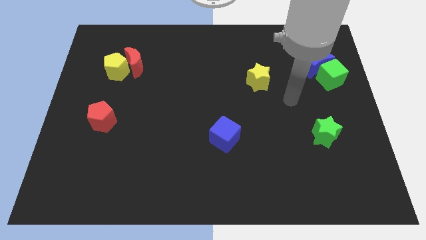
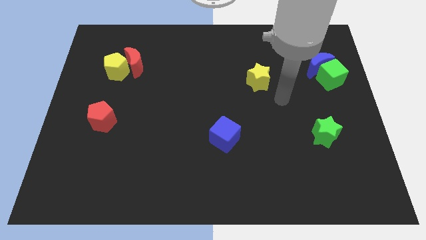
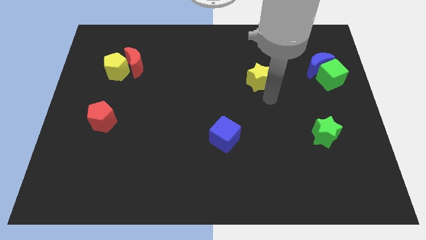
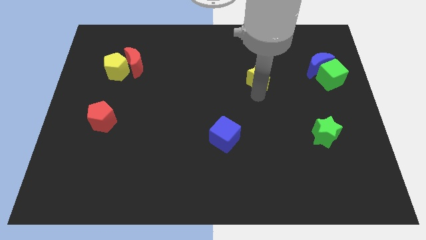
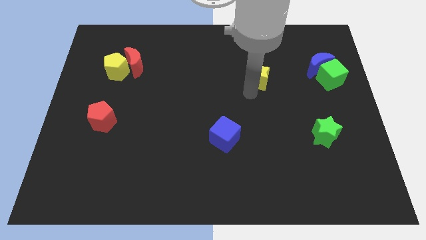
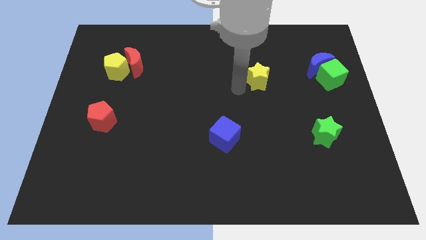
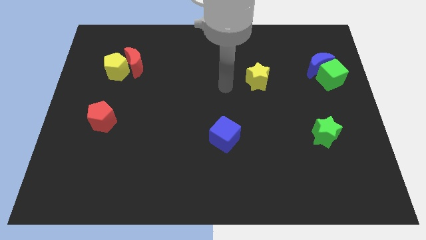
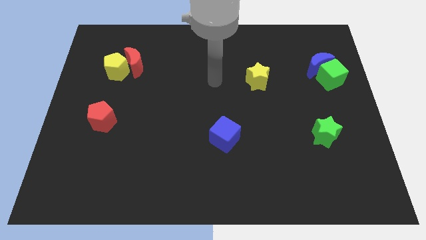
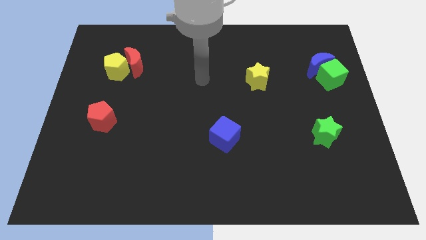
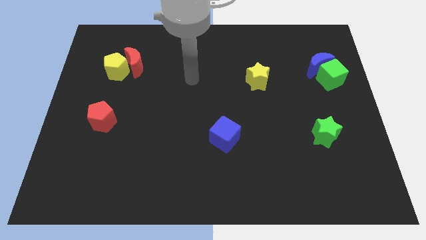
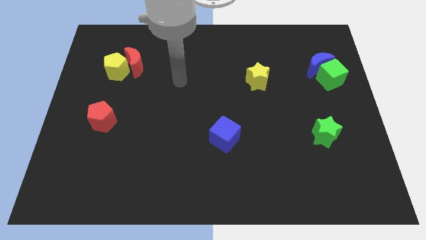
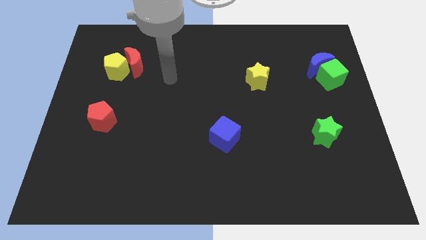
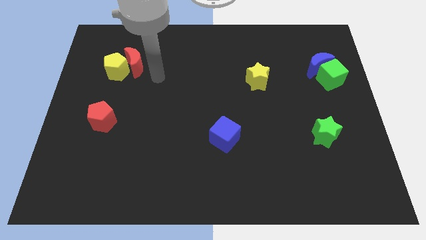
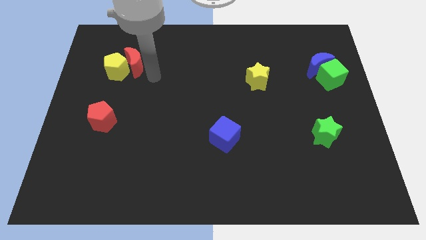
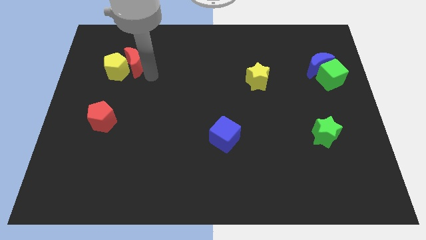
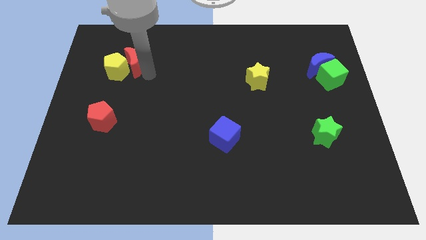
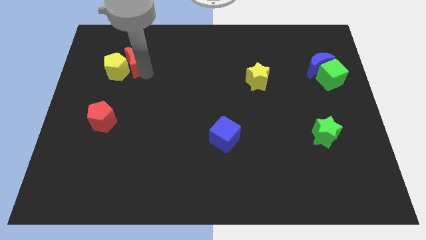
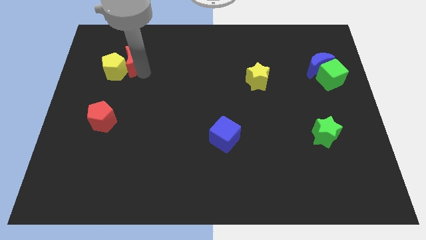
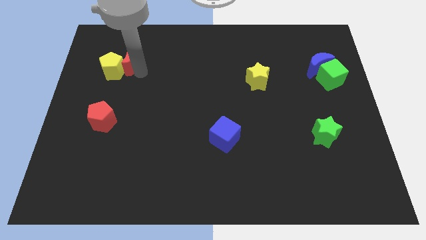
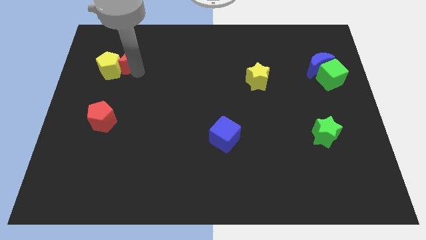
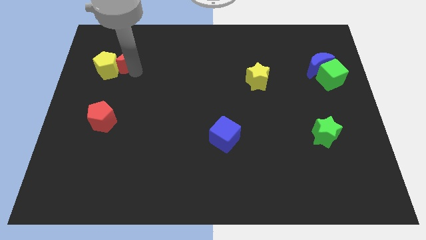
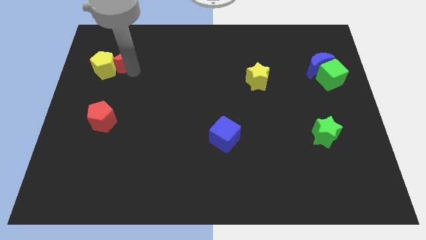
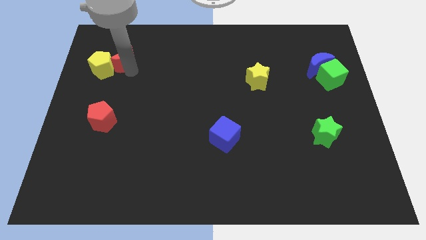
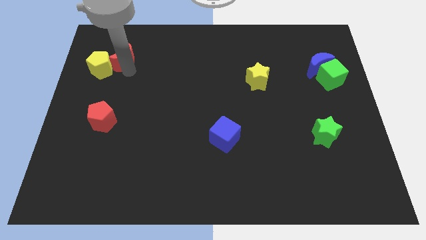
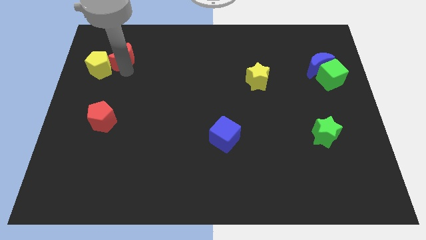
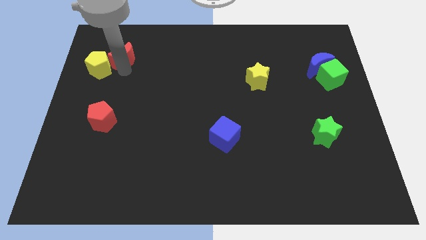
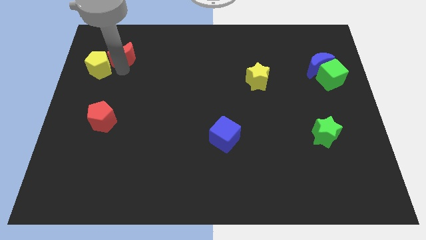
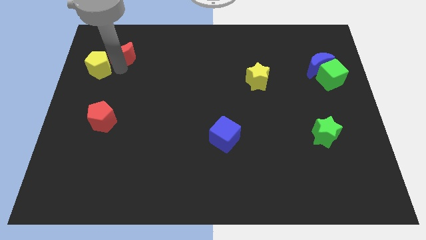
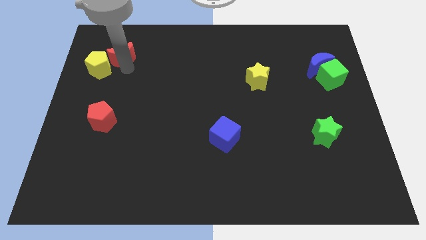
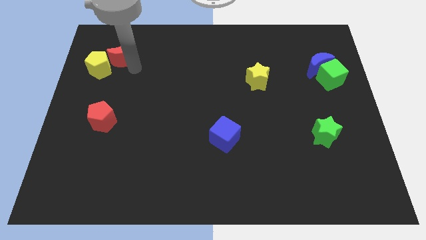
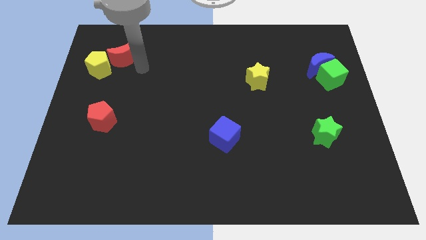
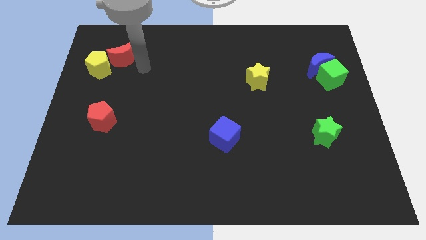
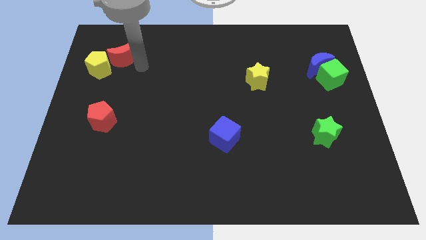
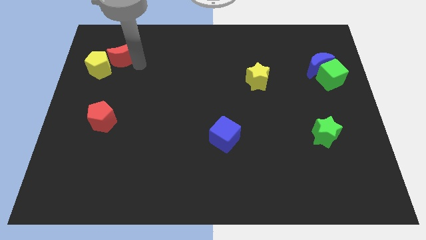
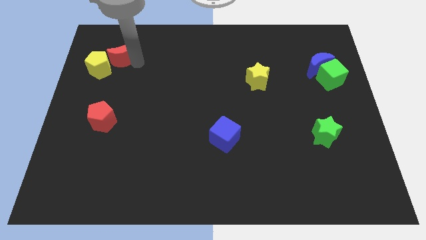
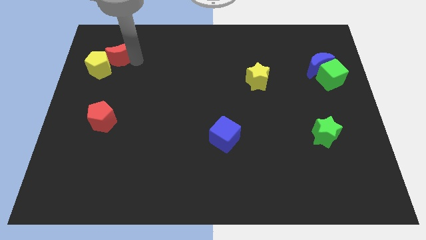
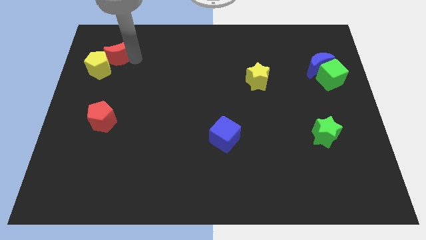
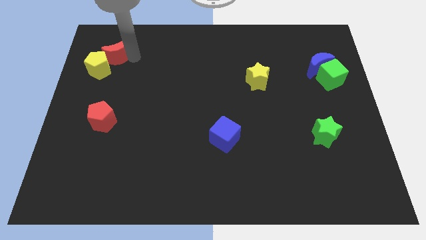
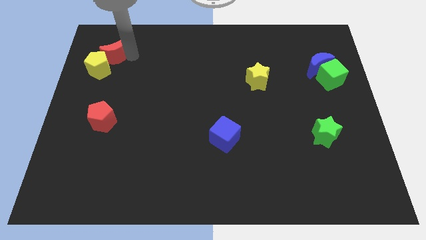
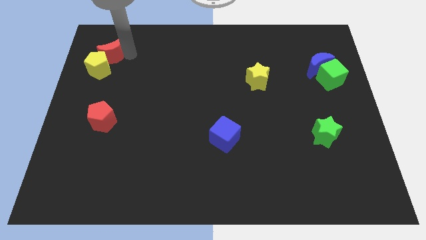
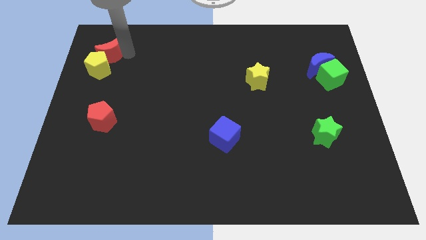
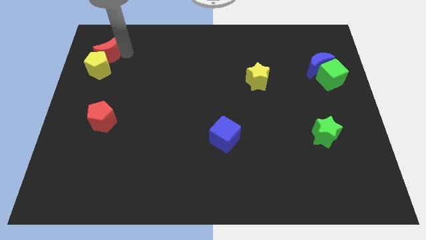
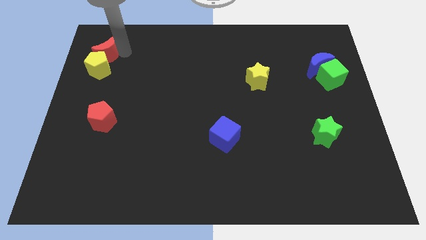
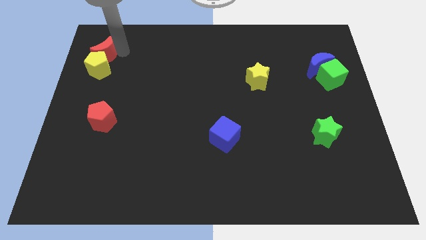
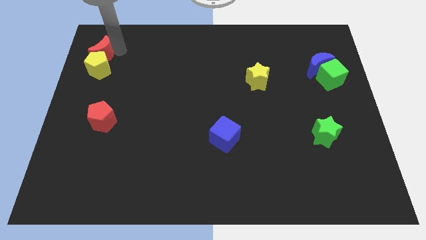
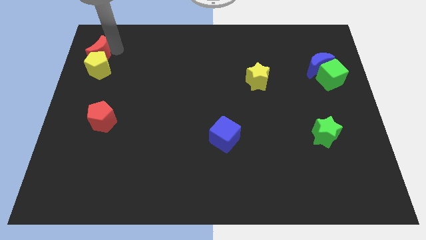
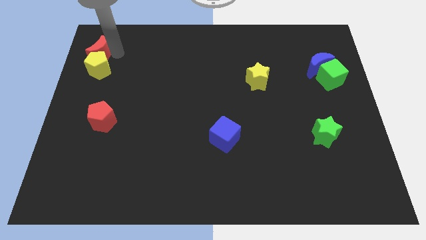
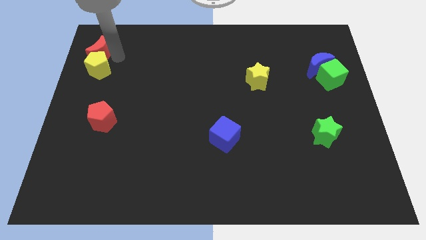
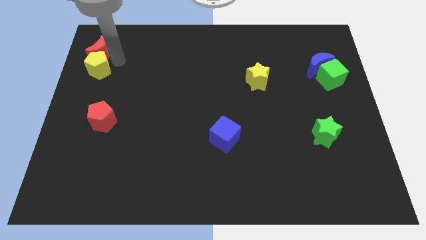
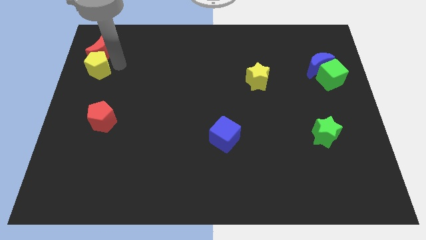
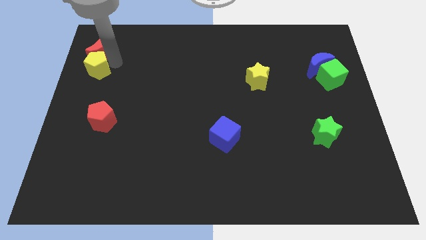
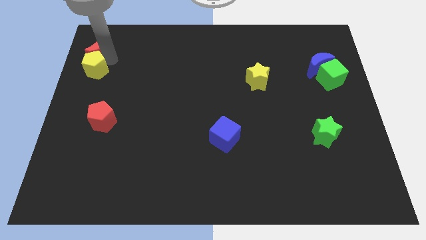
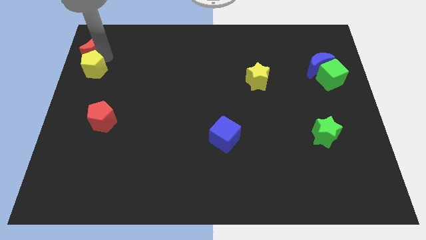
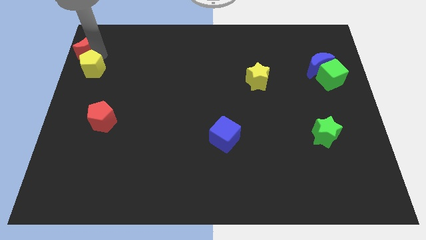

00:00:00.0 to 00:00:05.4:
push the red moon to the upper left corner

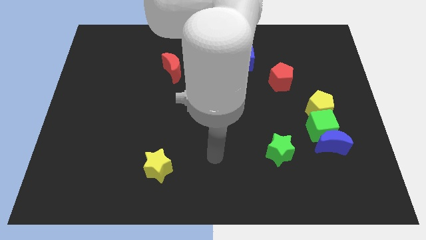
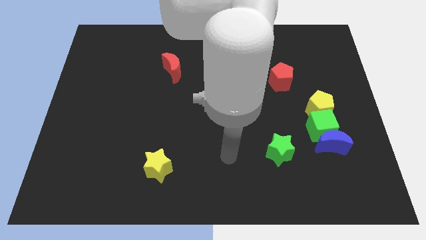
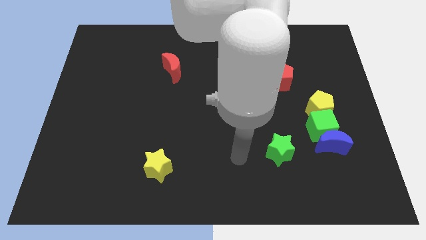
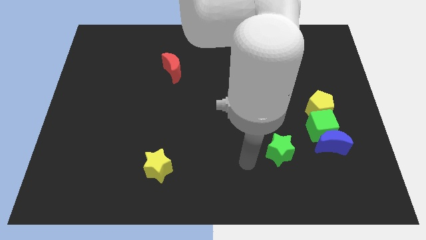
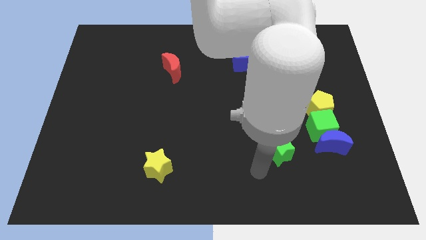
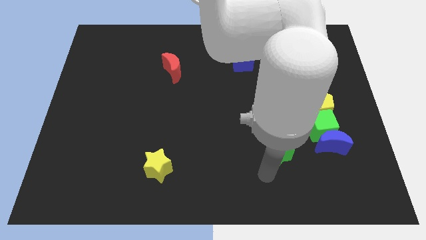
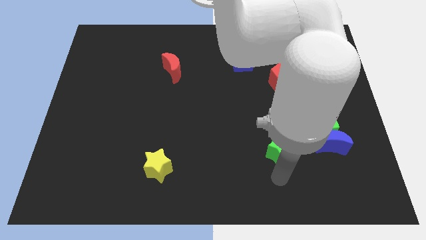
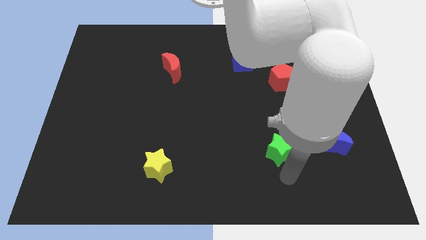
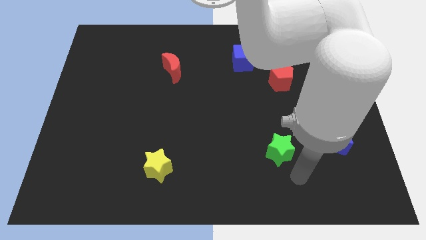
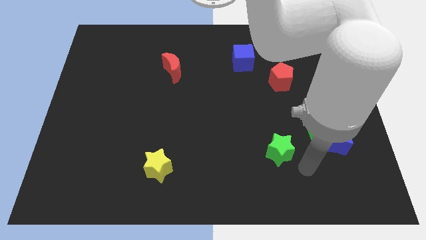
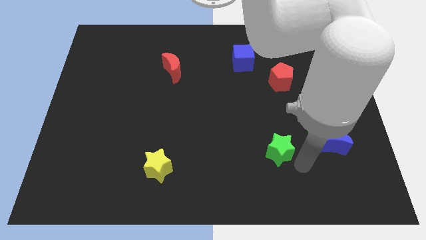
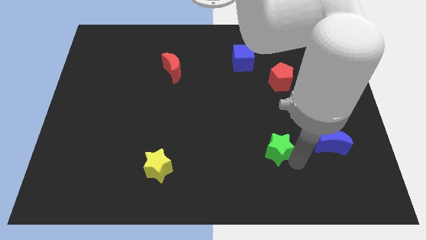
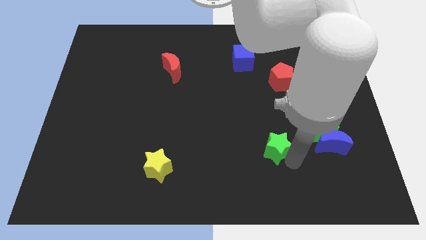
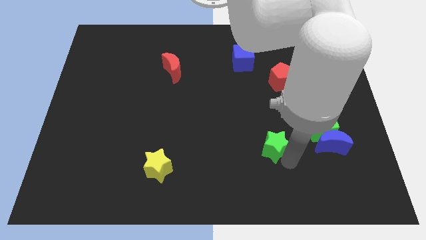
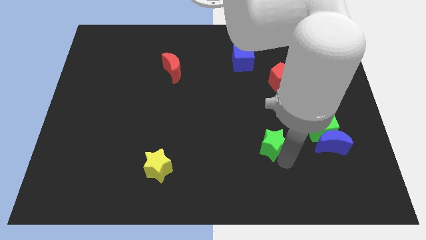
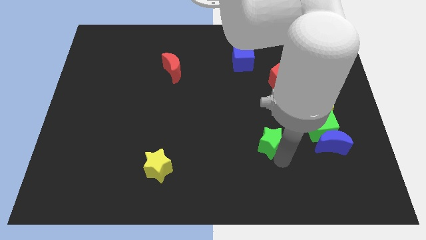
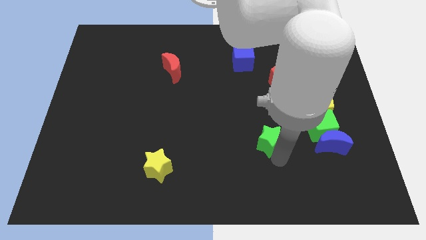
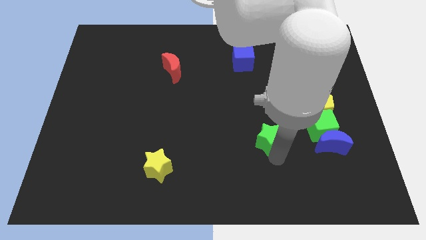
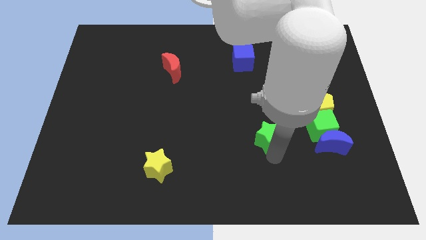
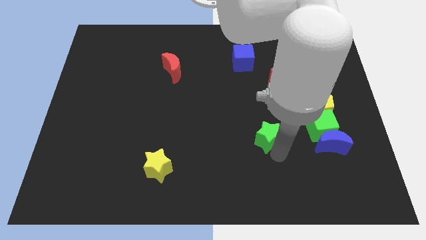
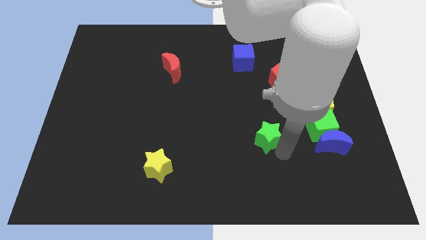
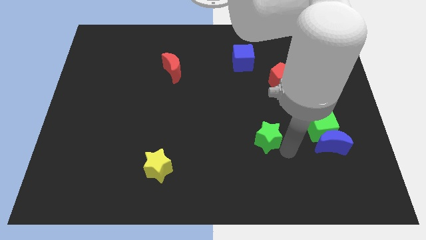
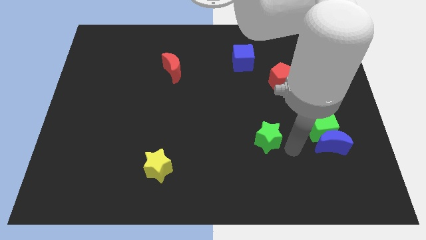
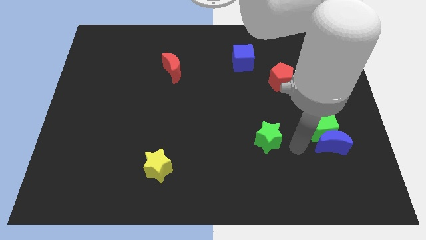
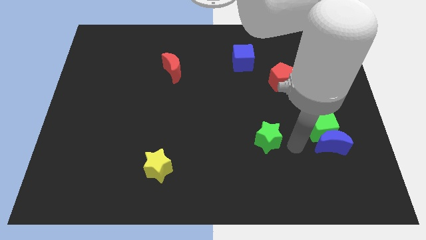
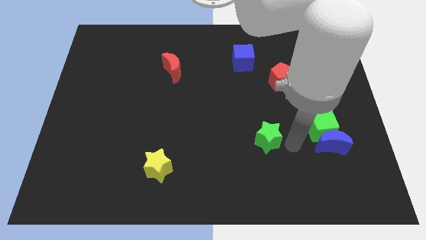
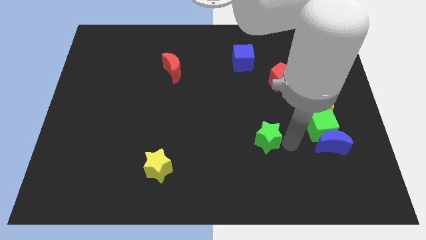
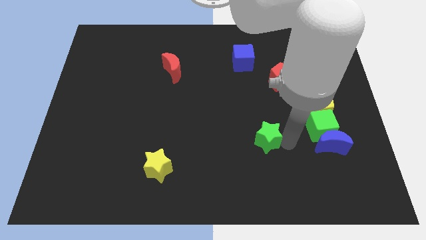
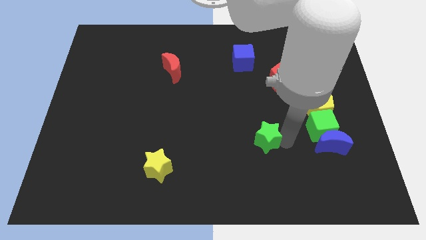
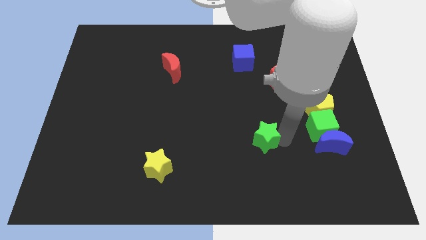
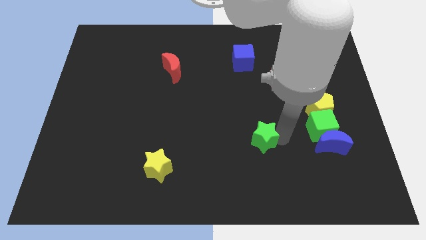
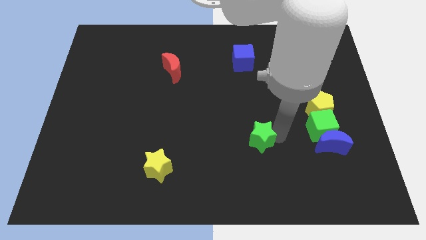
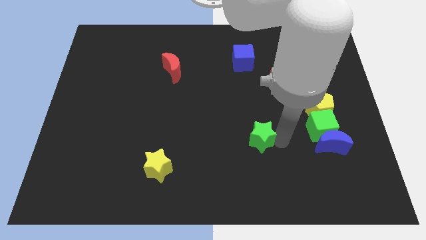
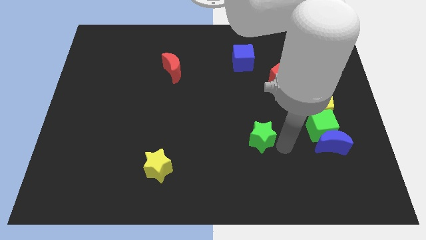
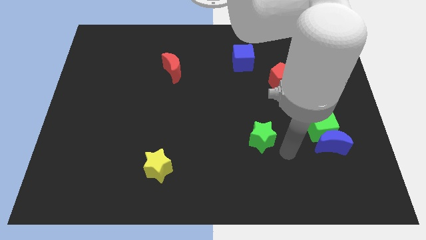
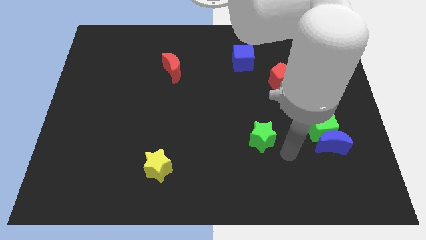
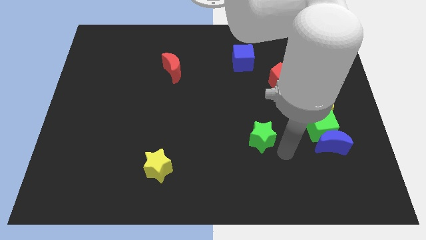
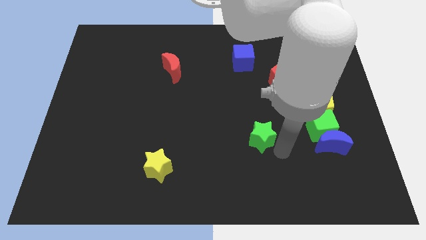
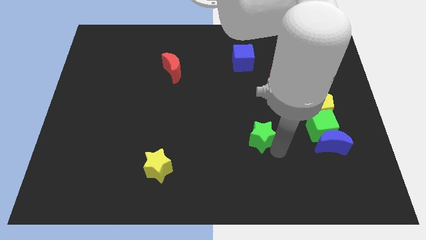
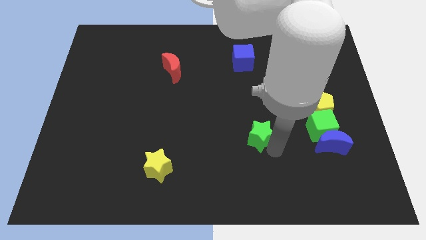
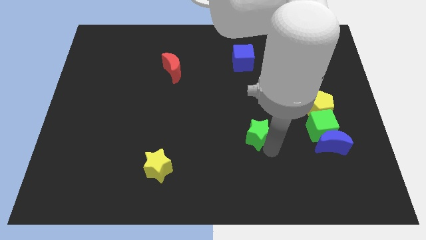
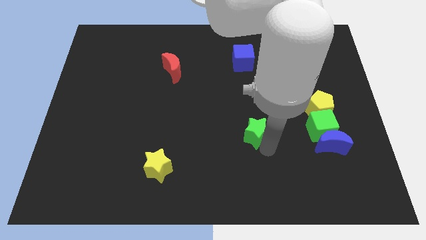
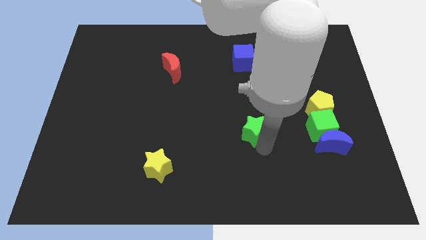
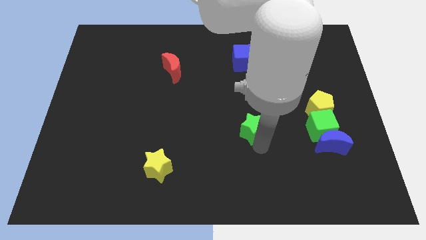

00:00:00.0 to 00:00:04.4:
push the green star to the middle
